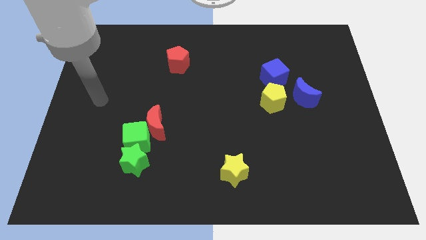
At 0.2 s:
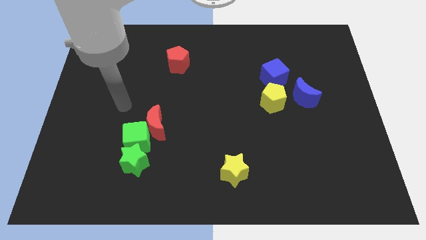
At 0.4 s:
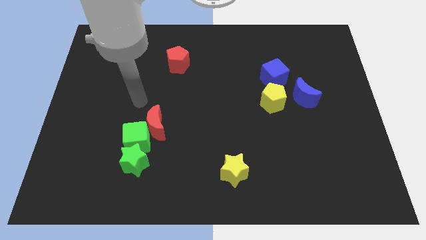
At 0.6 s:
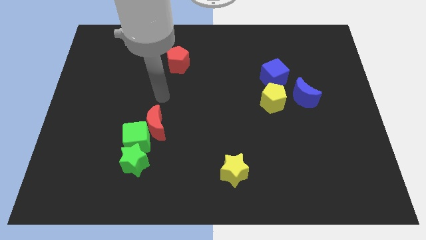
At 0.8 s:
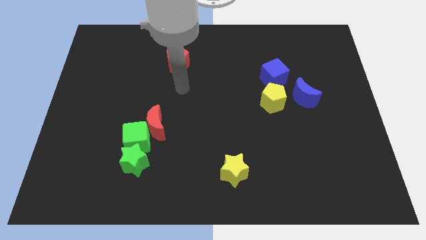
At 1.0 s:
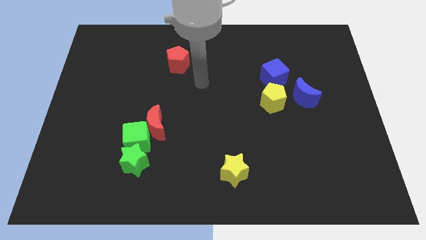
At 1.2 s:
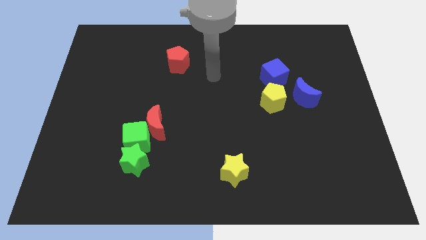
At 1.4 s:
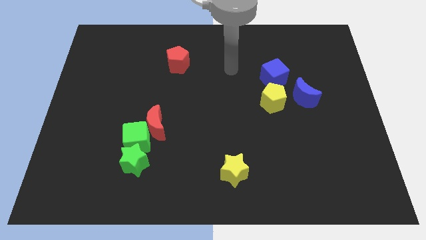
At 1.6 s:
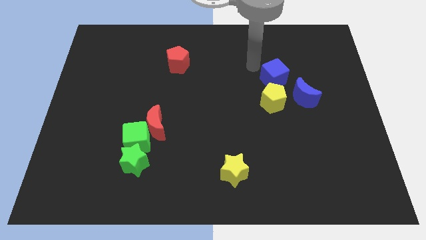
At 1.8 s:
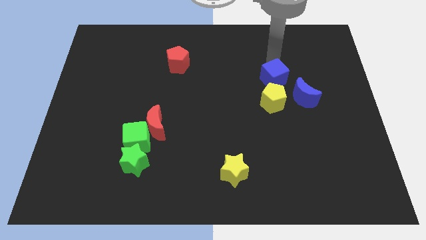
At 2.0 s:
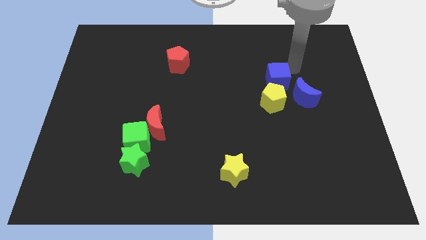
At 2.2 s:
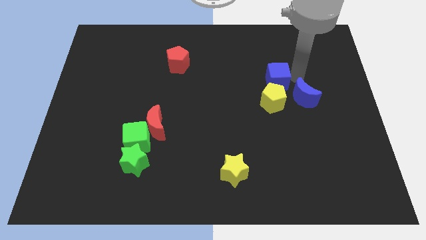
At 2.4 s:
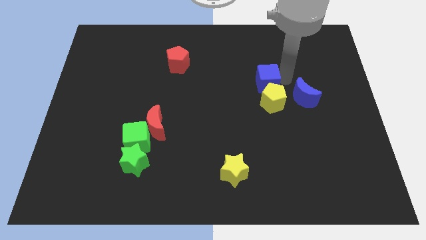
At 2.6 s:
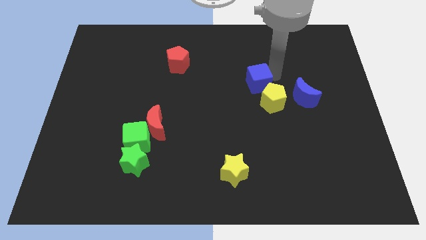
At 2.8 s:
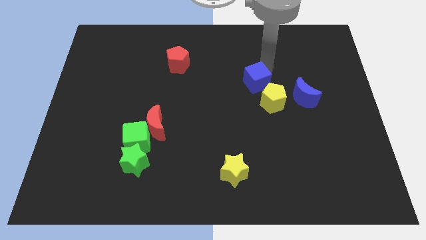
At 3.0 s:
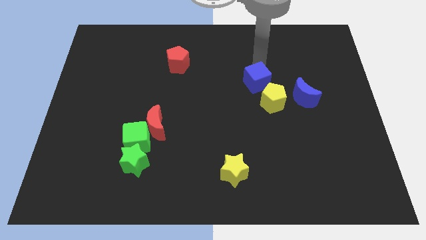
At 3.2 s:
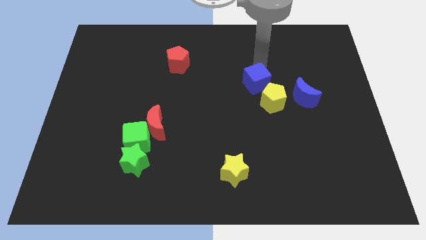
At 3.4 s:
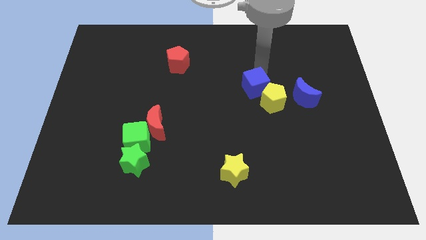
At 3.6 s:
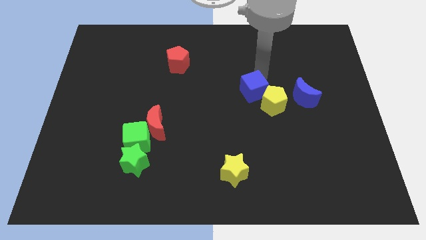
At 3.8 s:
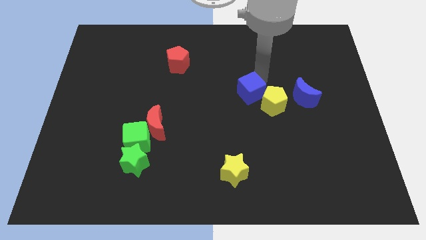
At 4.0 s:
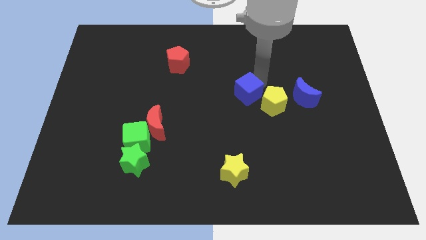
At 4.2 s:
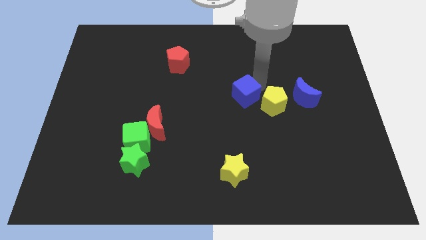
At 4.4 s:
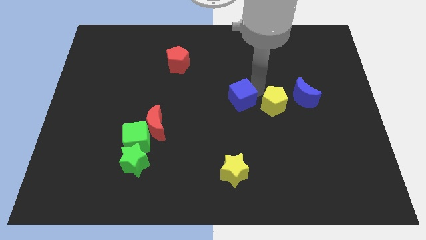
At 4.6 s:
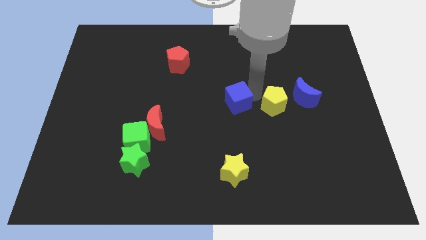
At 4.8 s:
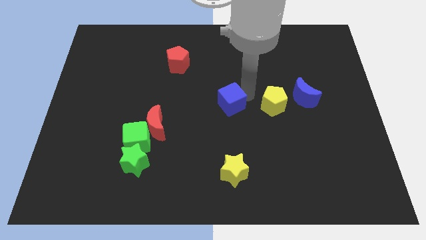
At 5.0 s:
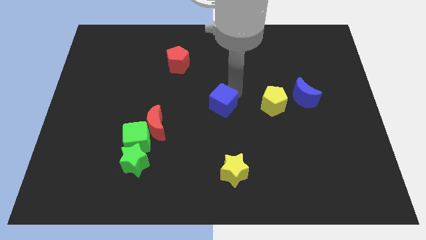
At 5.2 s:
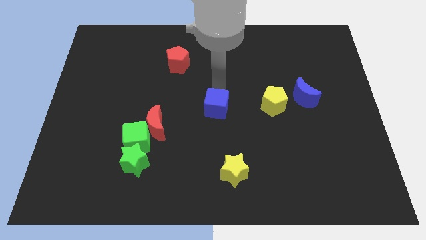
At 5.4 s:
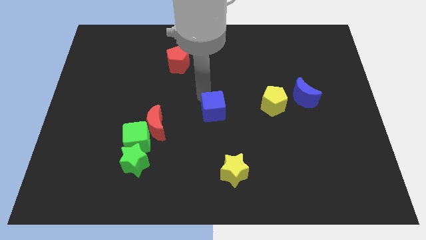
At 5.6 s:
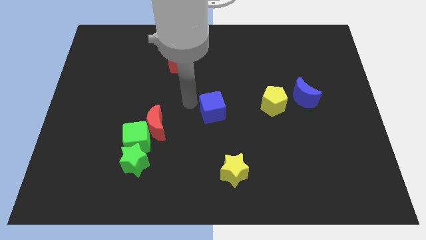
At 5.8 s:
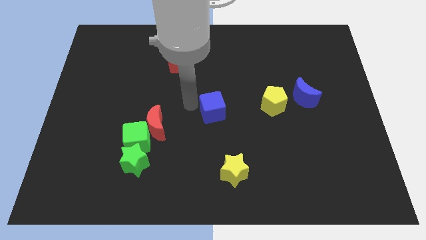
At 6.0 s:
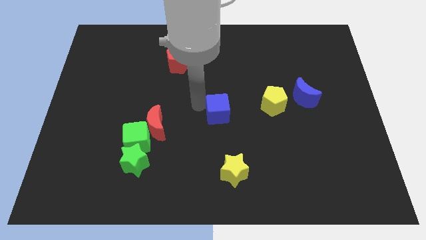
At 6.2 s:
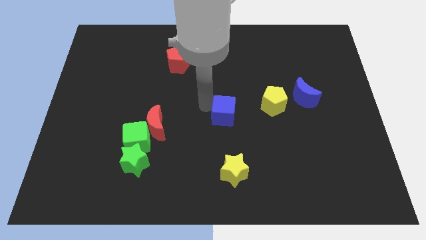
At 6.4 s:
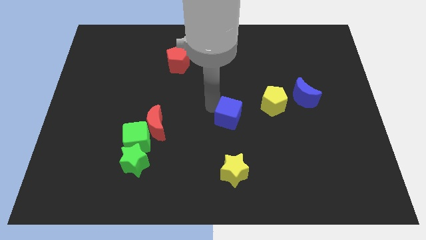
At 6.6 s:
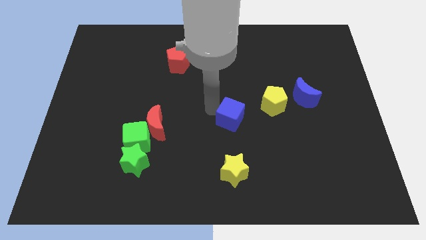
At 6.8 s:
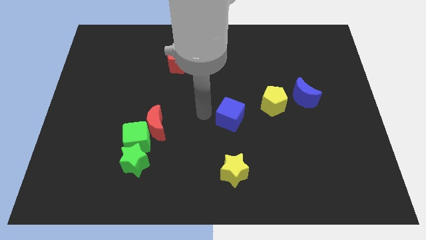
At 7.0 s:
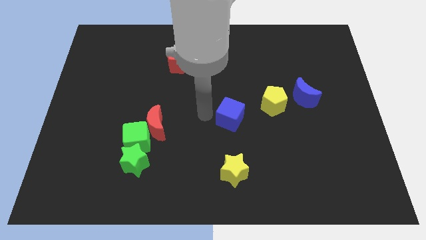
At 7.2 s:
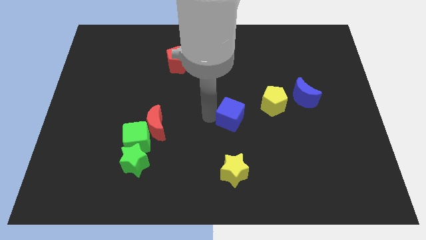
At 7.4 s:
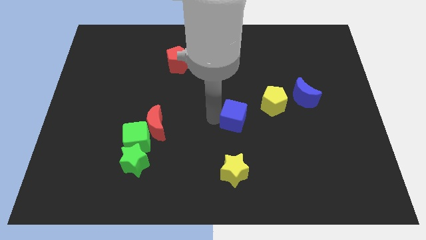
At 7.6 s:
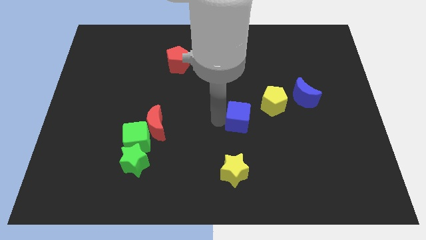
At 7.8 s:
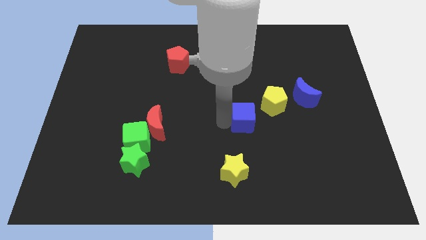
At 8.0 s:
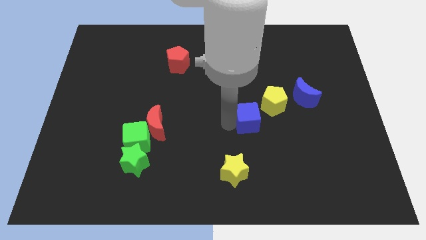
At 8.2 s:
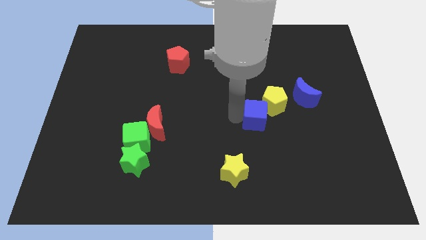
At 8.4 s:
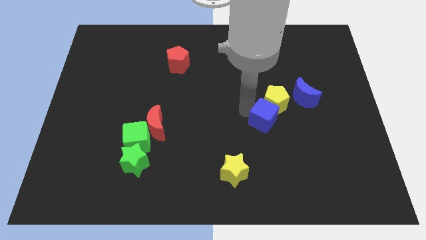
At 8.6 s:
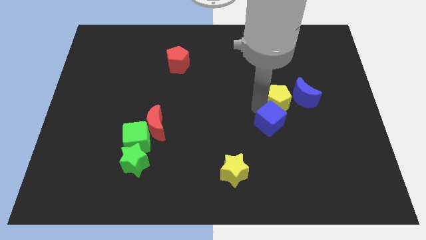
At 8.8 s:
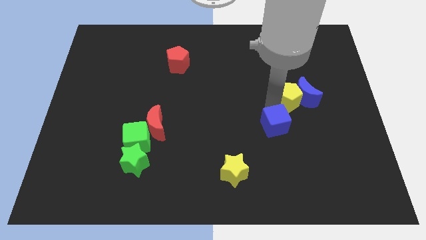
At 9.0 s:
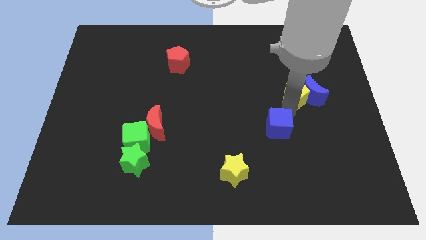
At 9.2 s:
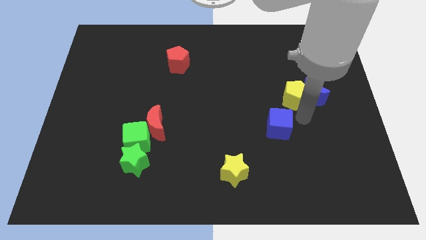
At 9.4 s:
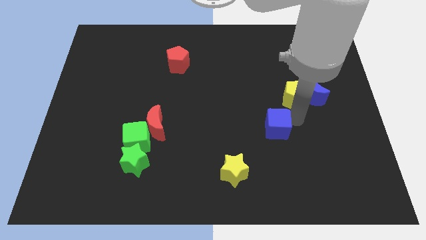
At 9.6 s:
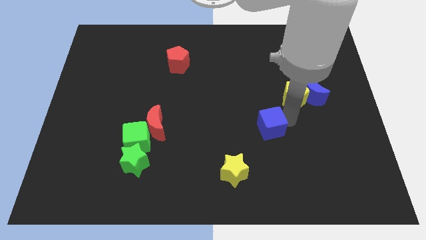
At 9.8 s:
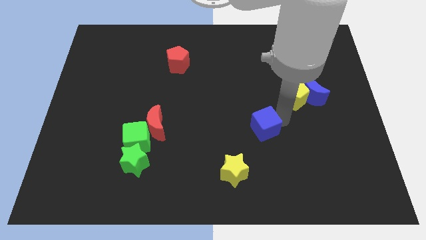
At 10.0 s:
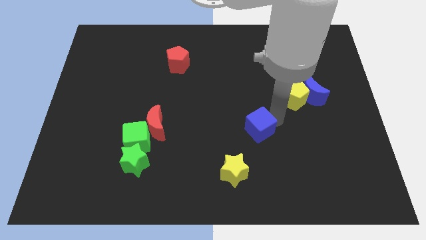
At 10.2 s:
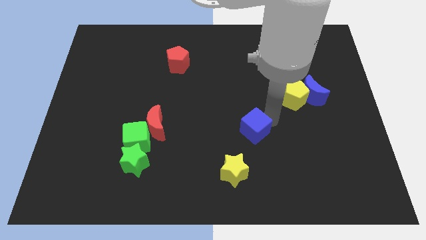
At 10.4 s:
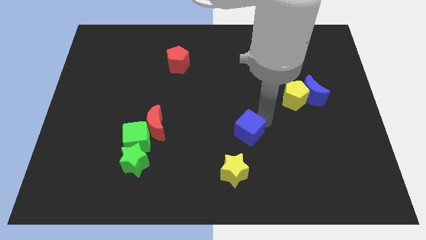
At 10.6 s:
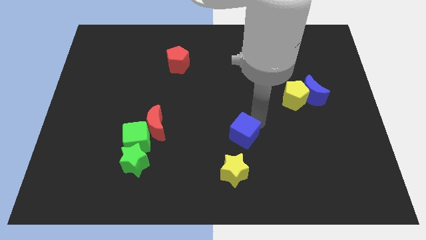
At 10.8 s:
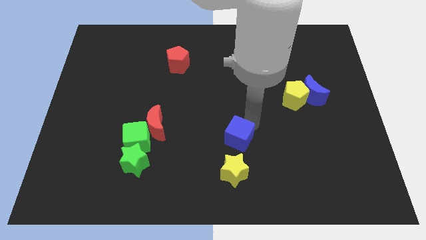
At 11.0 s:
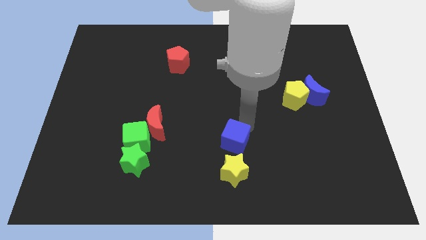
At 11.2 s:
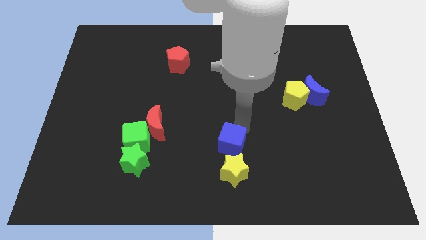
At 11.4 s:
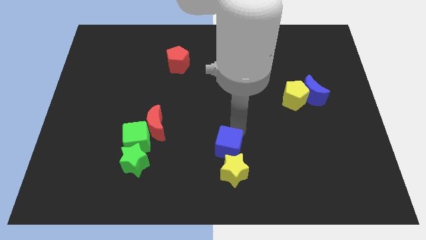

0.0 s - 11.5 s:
put the blue cube towards the yellow star

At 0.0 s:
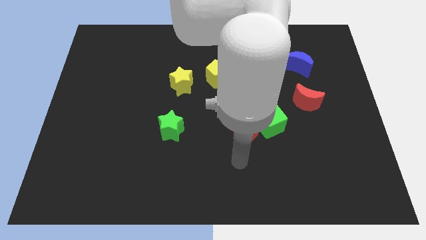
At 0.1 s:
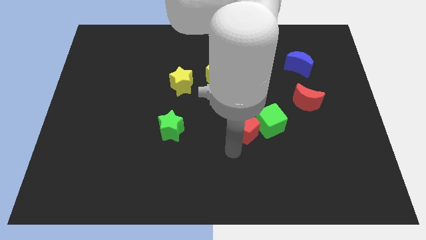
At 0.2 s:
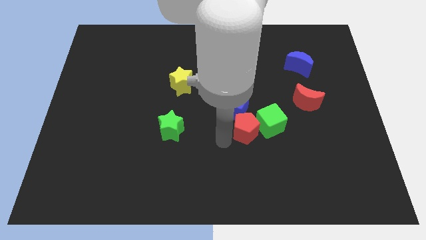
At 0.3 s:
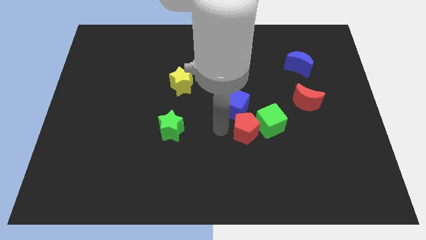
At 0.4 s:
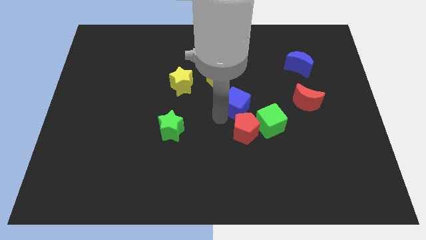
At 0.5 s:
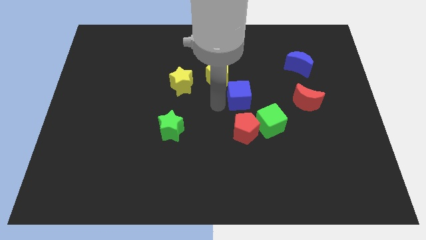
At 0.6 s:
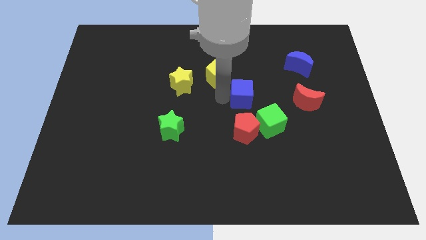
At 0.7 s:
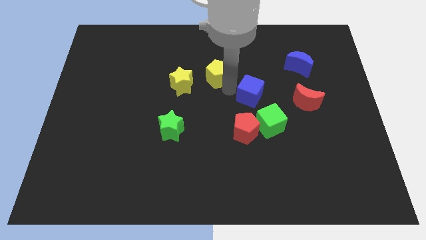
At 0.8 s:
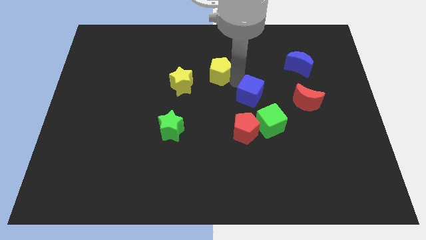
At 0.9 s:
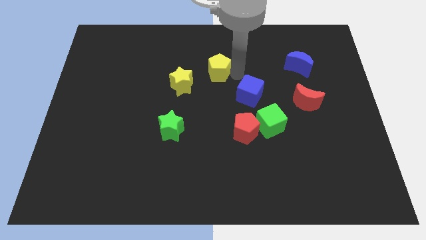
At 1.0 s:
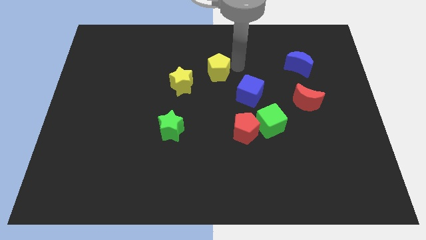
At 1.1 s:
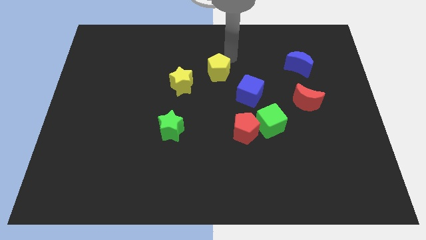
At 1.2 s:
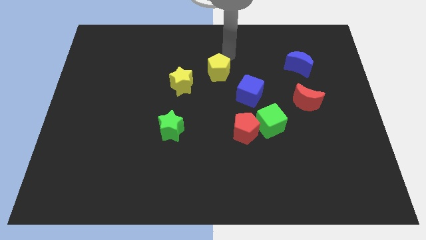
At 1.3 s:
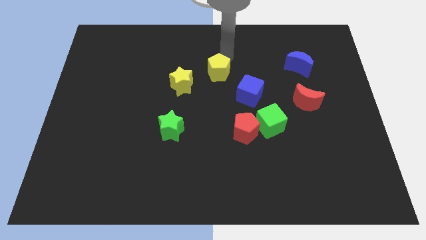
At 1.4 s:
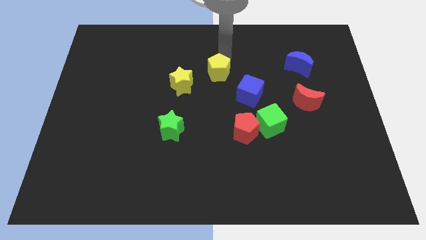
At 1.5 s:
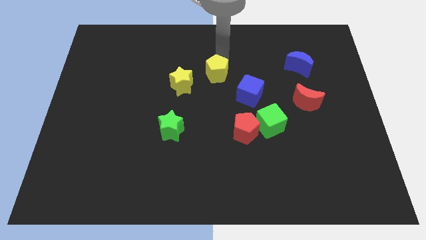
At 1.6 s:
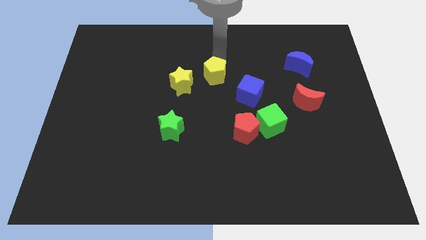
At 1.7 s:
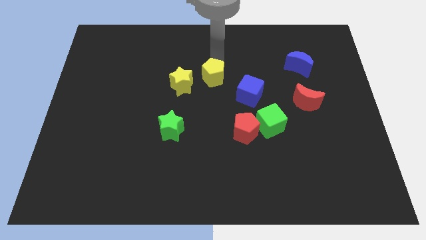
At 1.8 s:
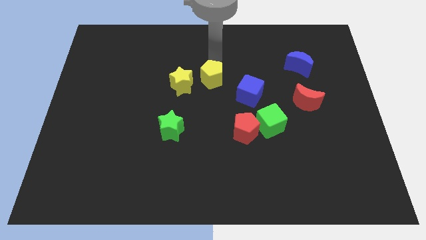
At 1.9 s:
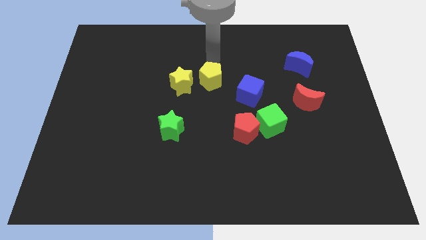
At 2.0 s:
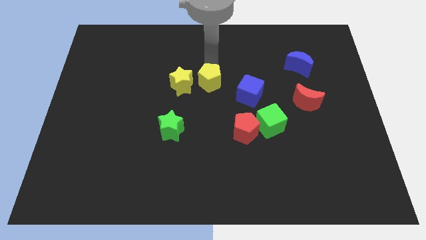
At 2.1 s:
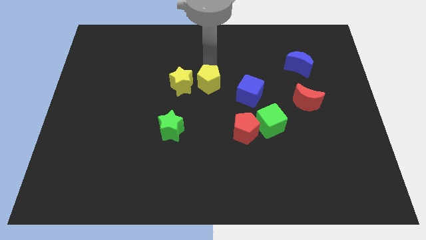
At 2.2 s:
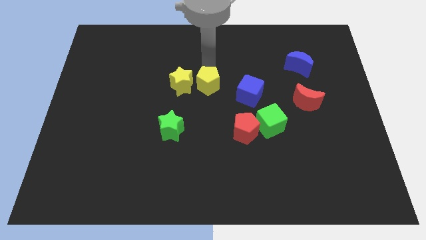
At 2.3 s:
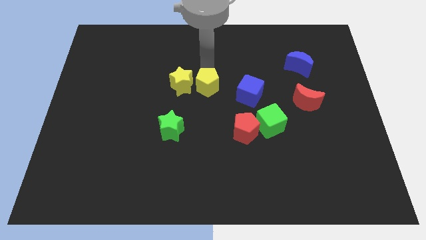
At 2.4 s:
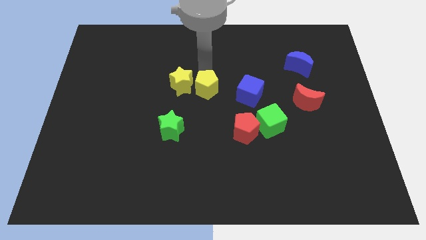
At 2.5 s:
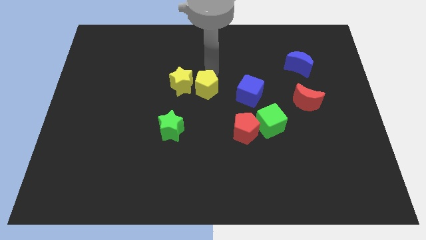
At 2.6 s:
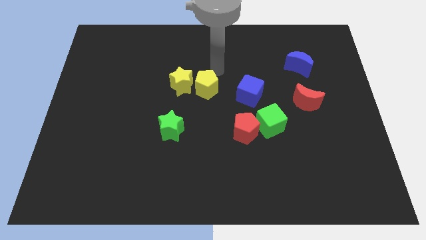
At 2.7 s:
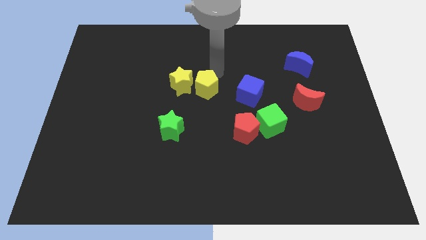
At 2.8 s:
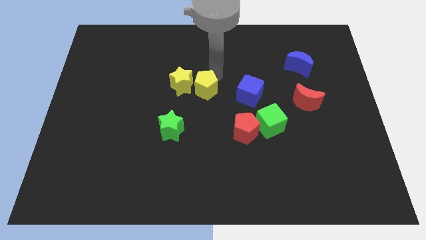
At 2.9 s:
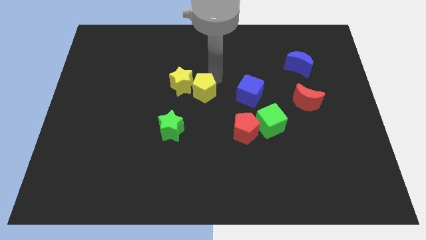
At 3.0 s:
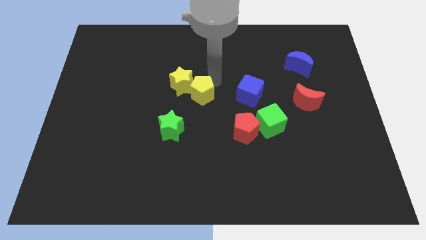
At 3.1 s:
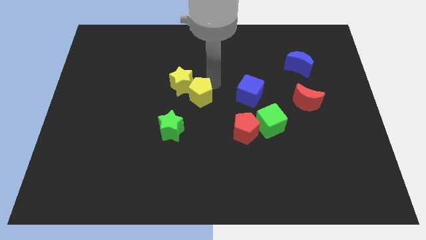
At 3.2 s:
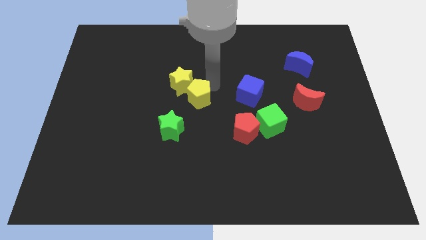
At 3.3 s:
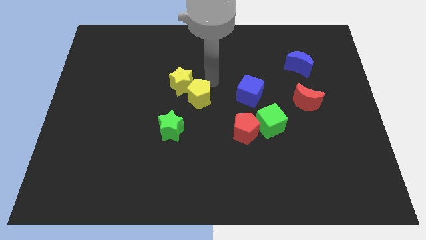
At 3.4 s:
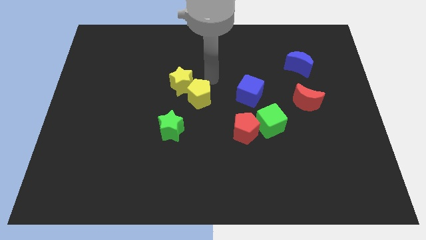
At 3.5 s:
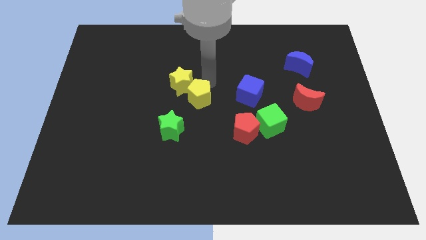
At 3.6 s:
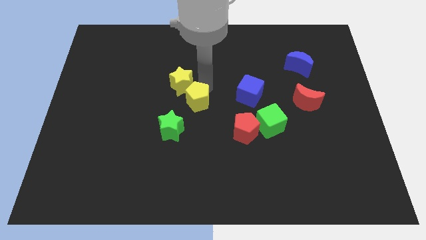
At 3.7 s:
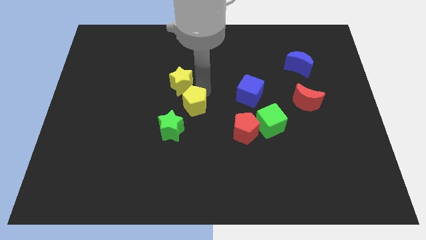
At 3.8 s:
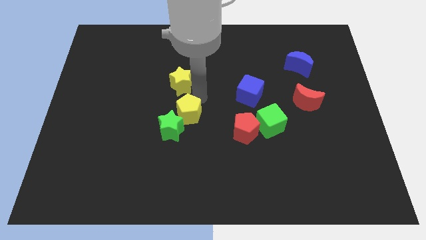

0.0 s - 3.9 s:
put the yellow pentagon close to the green star
